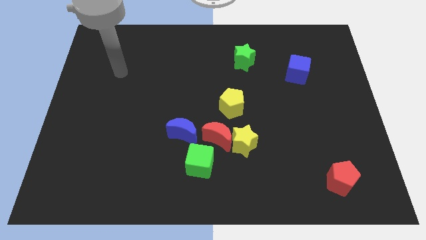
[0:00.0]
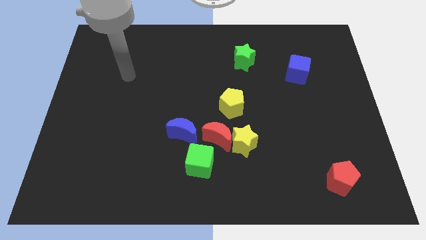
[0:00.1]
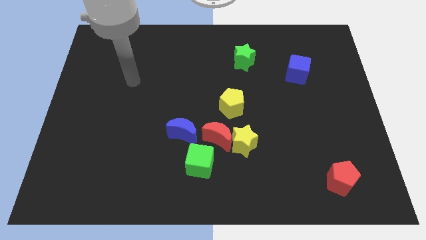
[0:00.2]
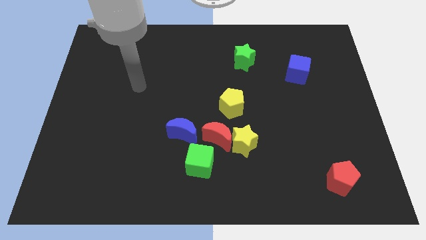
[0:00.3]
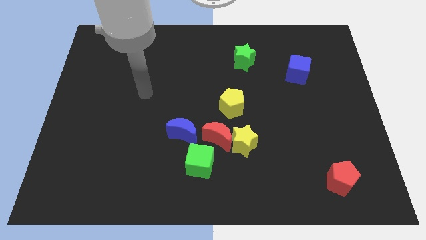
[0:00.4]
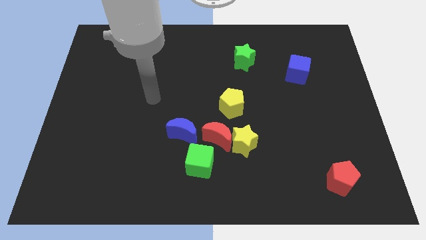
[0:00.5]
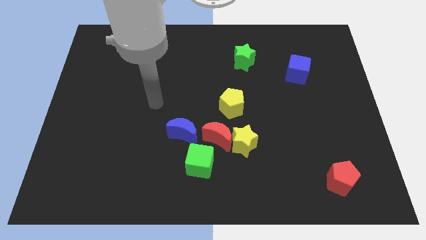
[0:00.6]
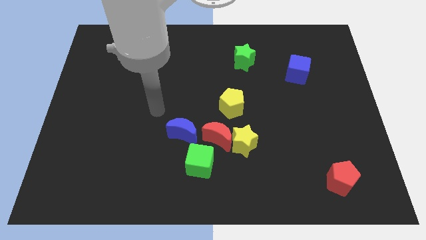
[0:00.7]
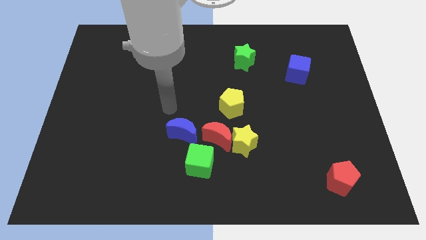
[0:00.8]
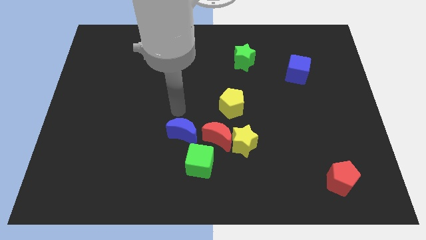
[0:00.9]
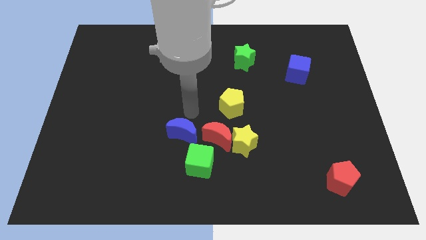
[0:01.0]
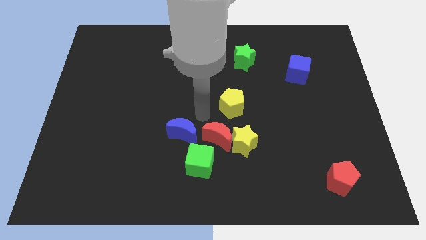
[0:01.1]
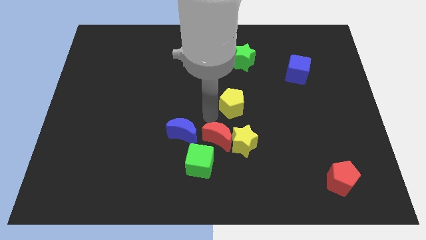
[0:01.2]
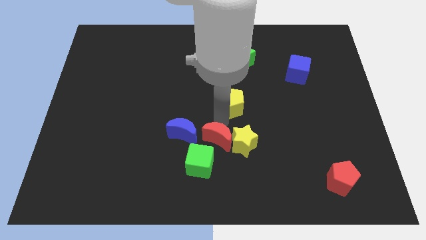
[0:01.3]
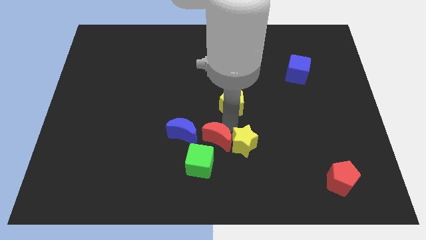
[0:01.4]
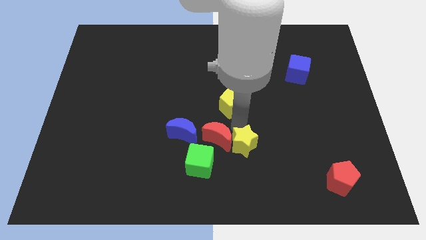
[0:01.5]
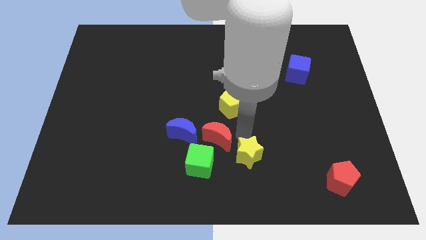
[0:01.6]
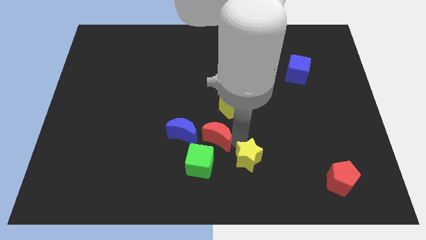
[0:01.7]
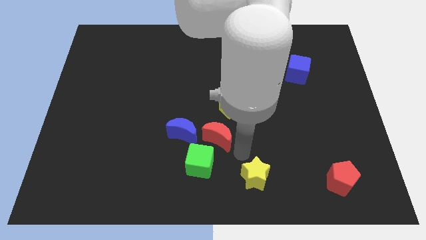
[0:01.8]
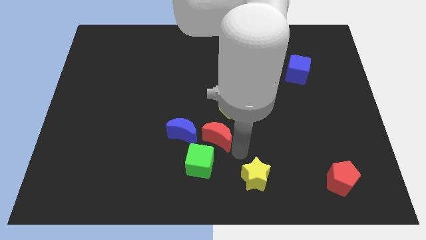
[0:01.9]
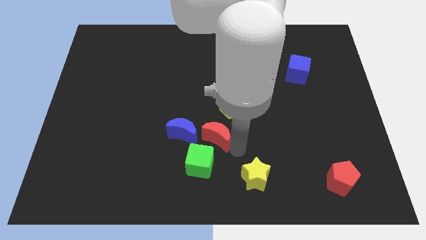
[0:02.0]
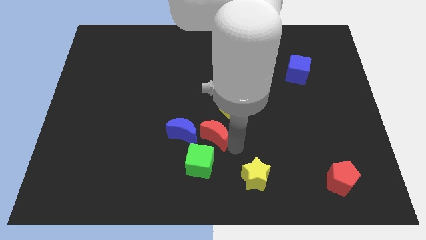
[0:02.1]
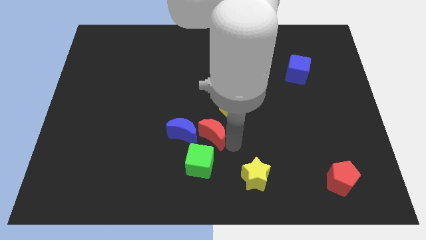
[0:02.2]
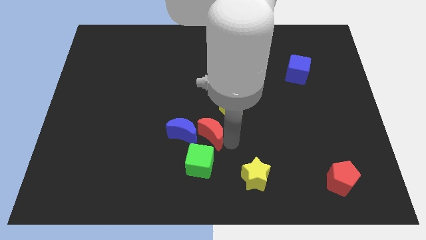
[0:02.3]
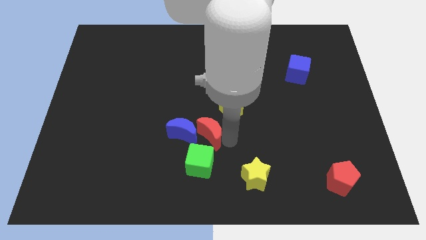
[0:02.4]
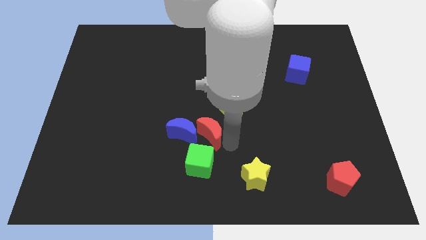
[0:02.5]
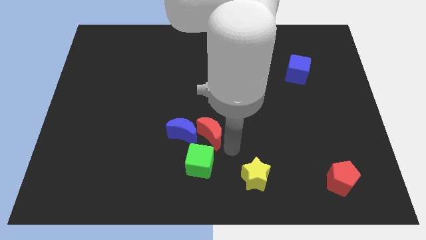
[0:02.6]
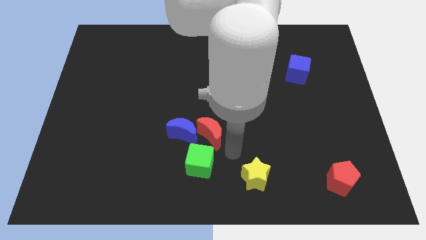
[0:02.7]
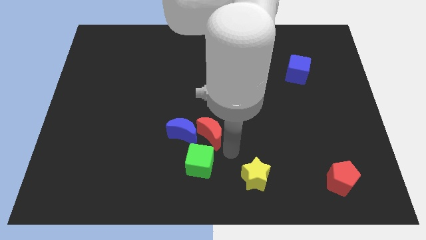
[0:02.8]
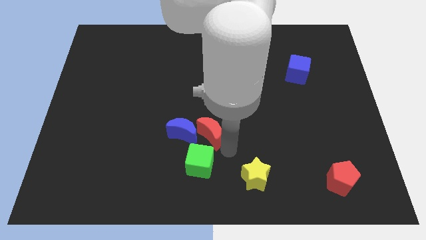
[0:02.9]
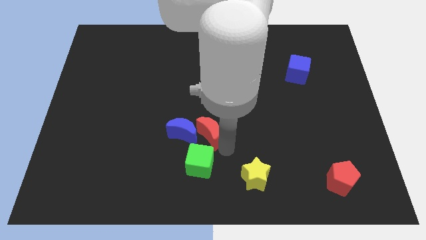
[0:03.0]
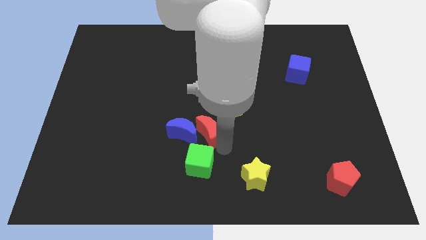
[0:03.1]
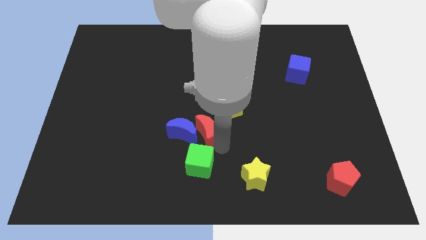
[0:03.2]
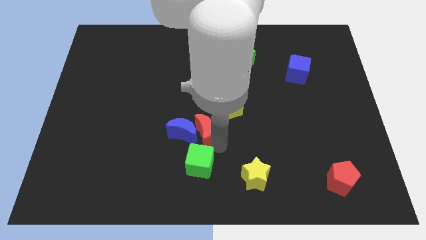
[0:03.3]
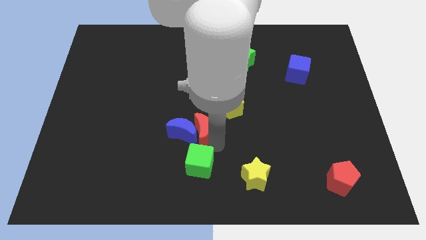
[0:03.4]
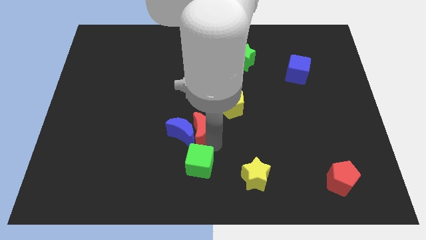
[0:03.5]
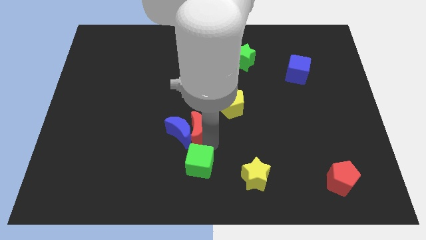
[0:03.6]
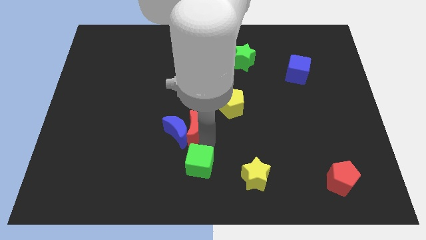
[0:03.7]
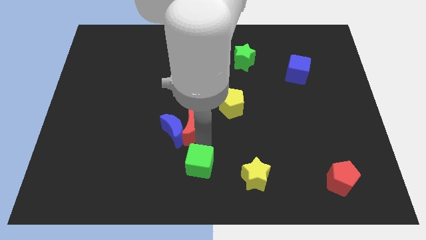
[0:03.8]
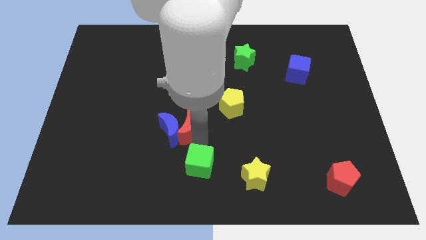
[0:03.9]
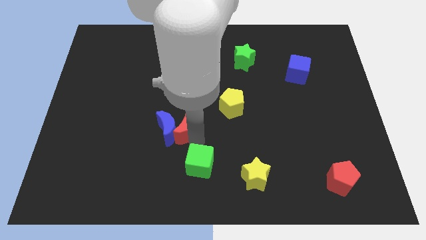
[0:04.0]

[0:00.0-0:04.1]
move the red moon somewhat to the left

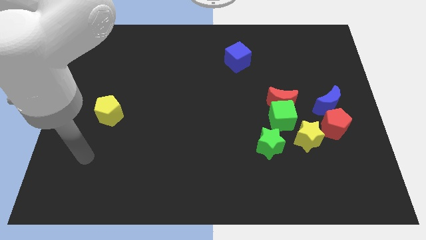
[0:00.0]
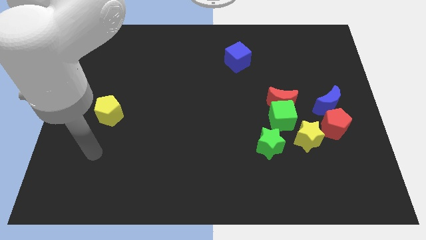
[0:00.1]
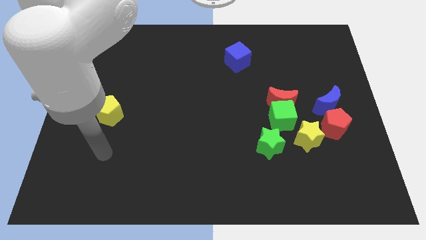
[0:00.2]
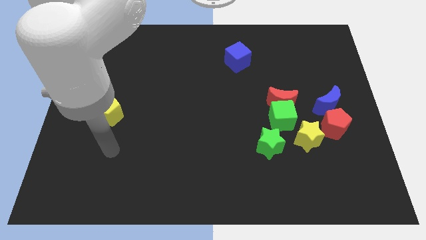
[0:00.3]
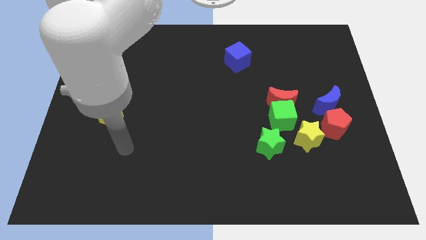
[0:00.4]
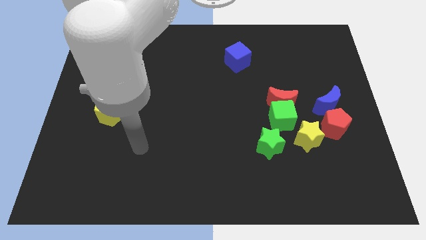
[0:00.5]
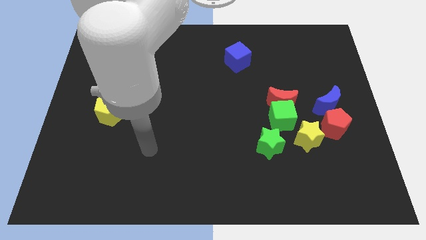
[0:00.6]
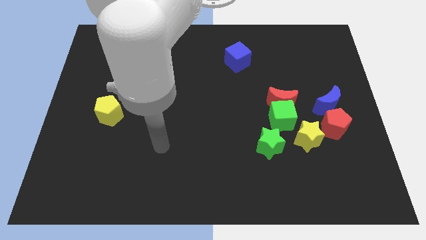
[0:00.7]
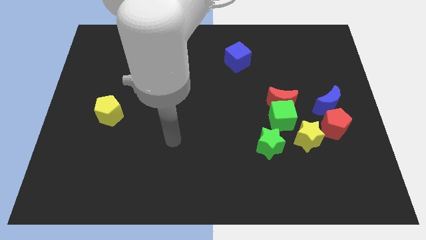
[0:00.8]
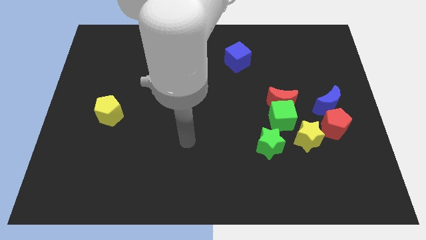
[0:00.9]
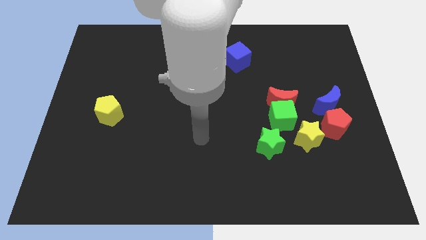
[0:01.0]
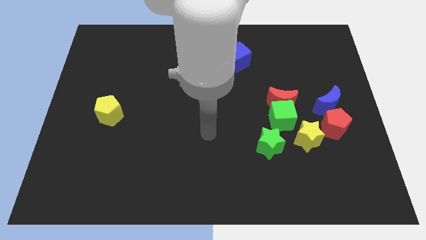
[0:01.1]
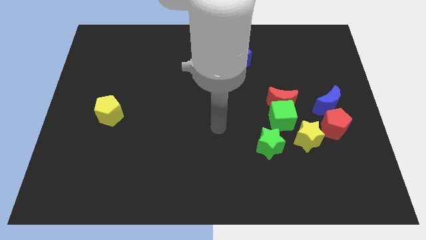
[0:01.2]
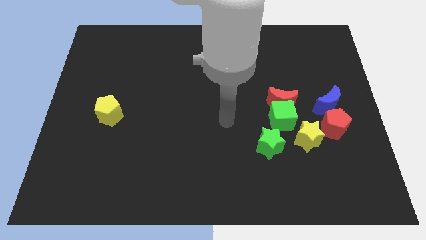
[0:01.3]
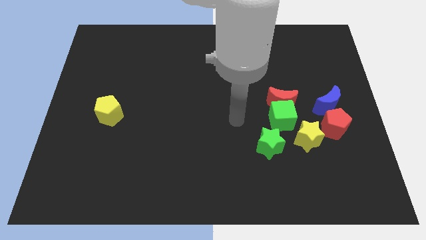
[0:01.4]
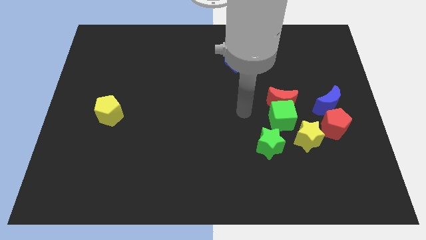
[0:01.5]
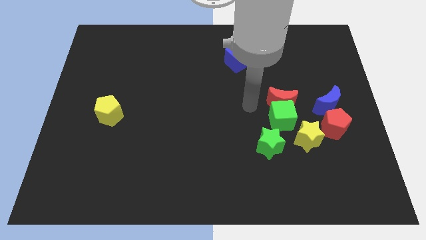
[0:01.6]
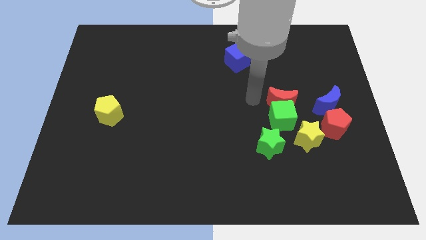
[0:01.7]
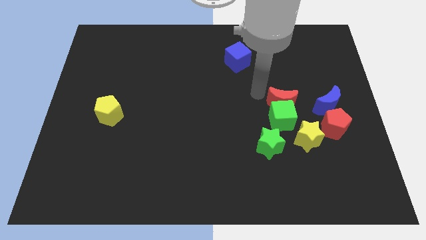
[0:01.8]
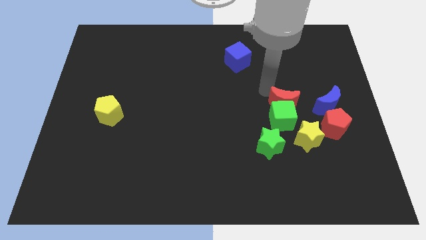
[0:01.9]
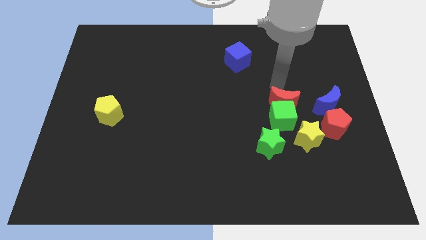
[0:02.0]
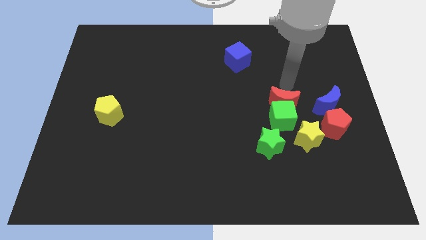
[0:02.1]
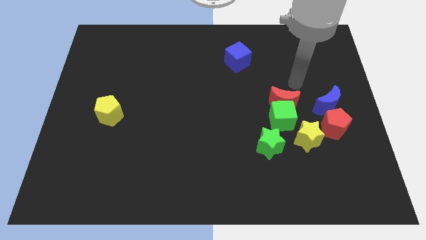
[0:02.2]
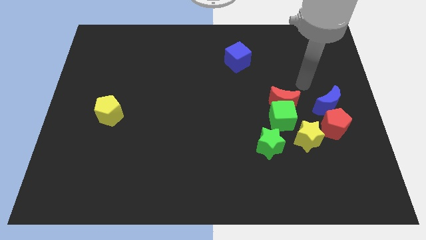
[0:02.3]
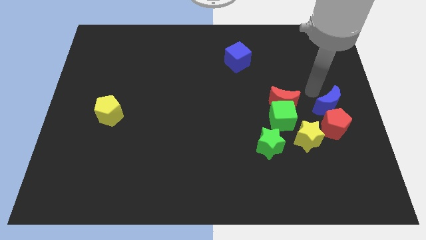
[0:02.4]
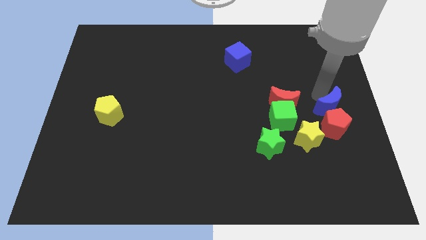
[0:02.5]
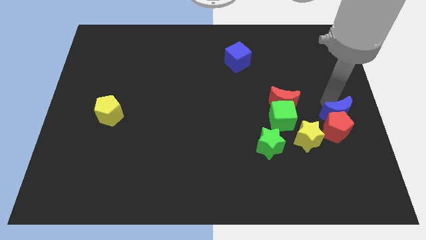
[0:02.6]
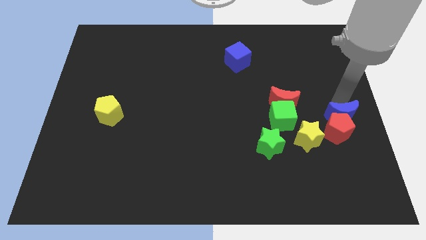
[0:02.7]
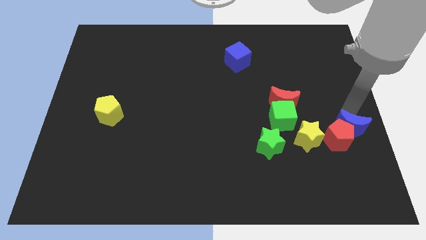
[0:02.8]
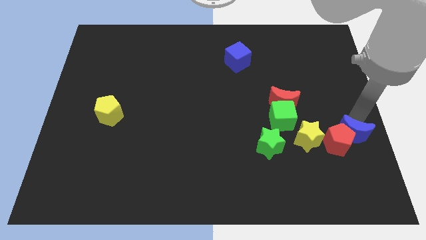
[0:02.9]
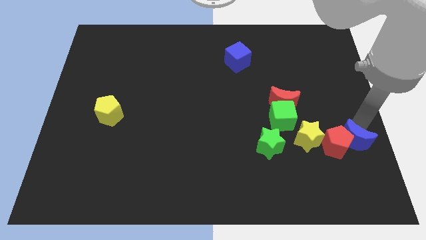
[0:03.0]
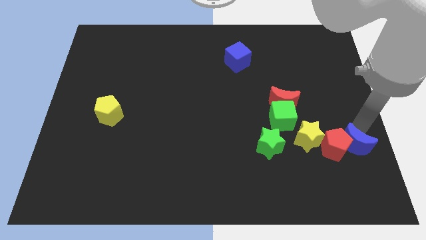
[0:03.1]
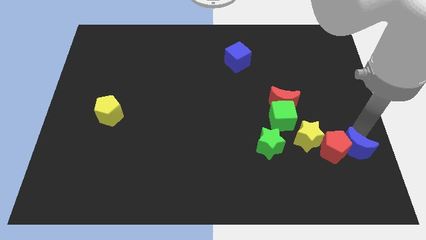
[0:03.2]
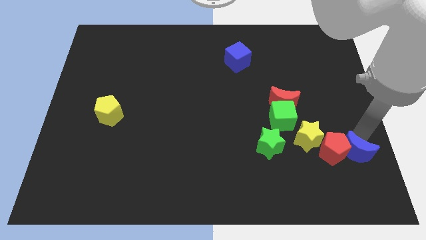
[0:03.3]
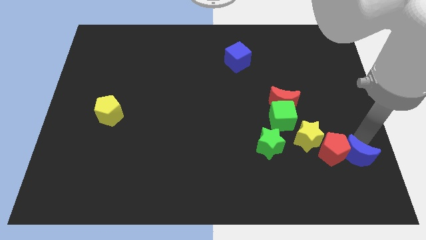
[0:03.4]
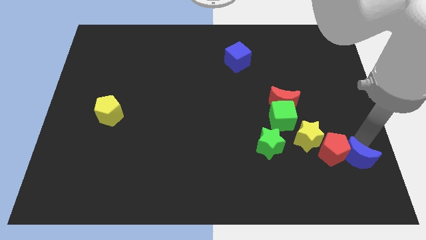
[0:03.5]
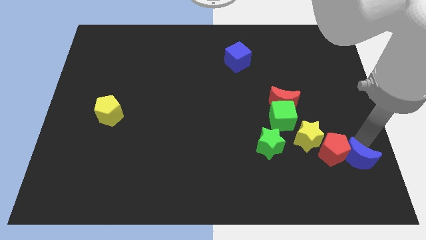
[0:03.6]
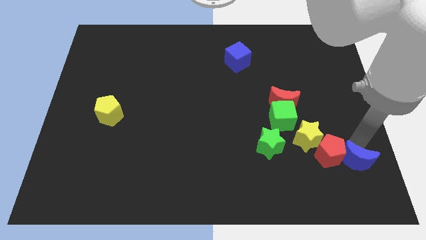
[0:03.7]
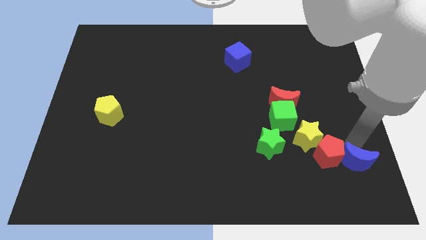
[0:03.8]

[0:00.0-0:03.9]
move the red pentagon downwards and then to the left a little
